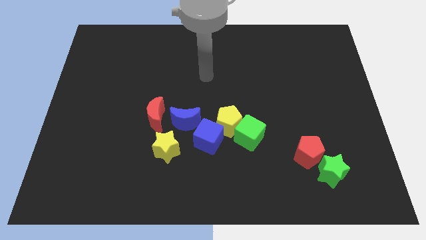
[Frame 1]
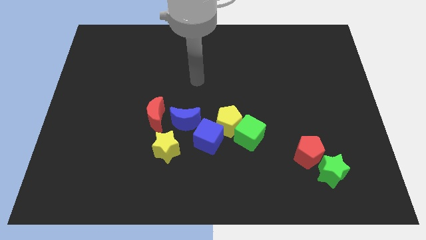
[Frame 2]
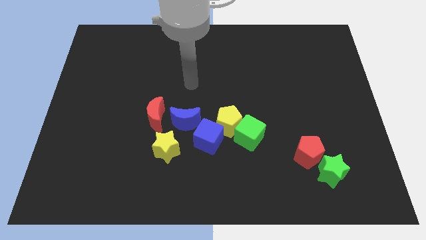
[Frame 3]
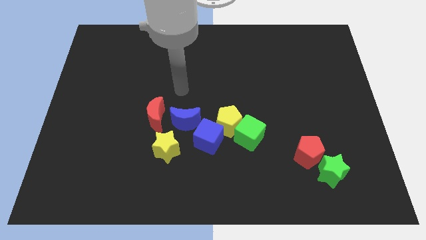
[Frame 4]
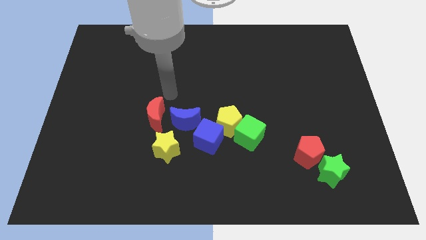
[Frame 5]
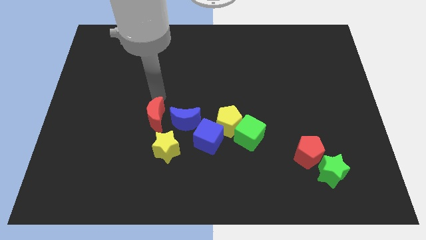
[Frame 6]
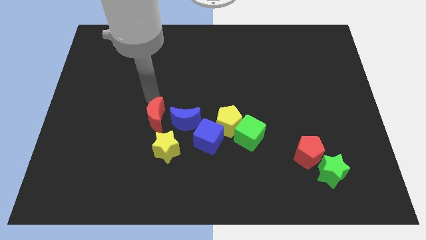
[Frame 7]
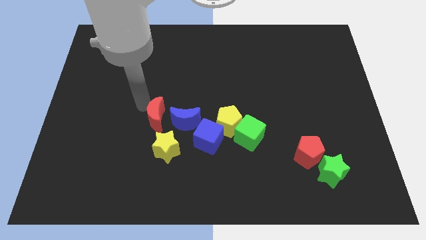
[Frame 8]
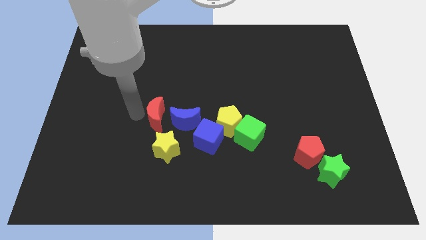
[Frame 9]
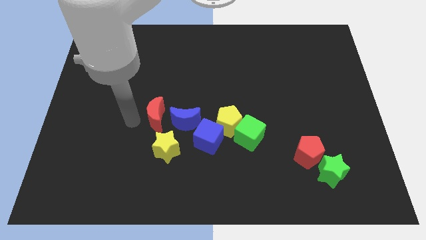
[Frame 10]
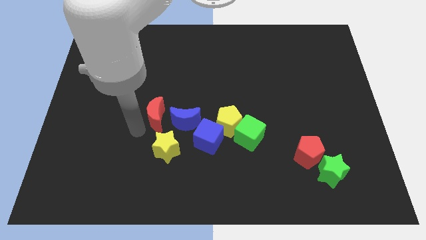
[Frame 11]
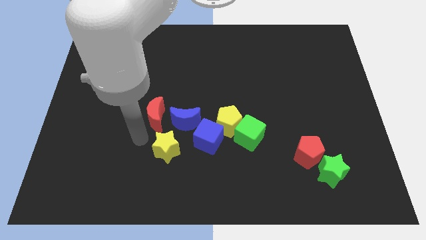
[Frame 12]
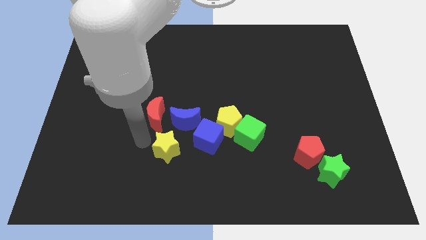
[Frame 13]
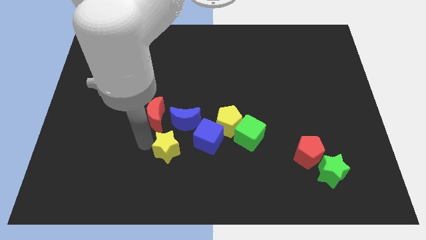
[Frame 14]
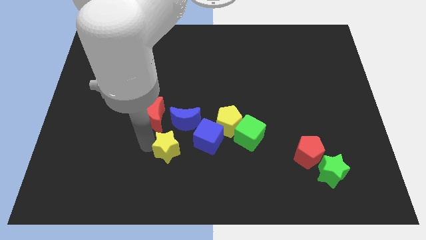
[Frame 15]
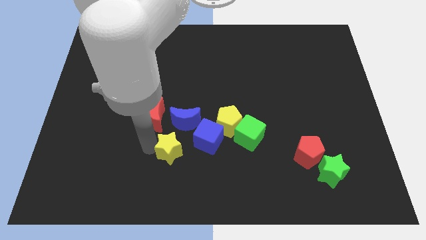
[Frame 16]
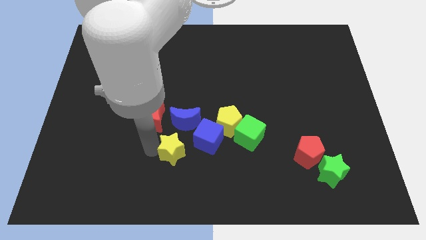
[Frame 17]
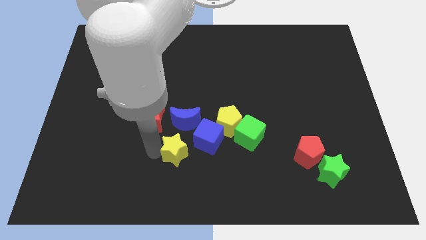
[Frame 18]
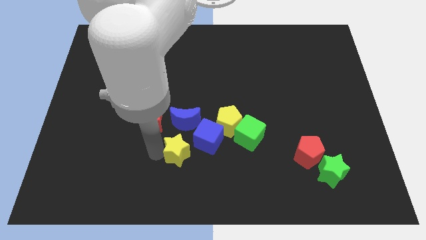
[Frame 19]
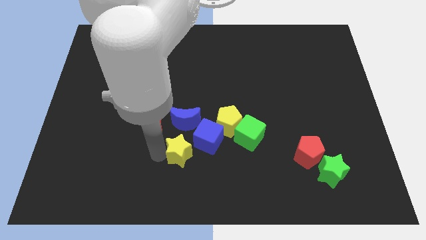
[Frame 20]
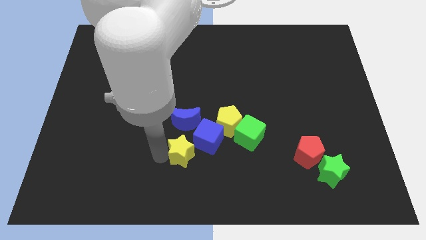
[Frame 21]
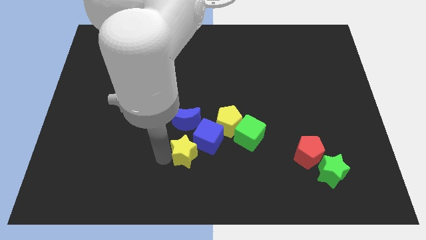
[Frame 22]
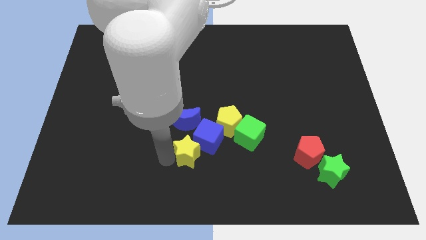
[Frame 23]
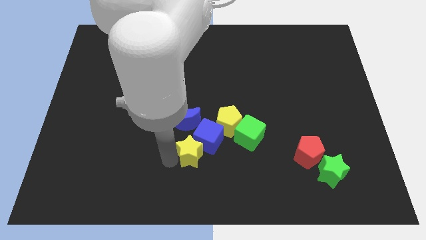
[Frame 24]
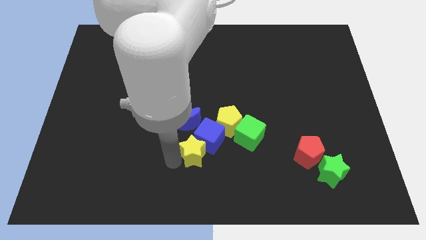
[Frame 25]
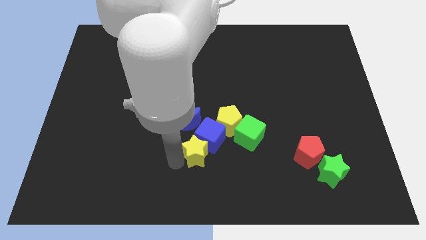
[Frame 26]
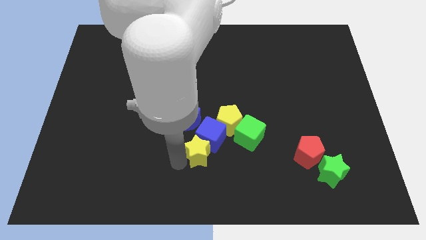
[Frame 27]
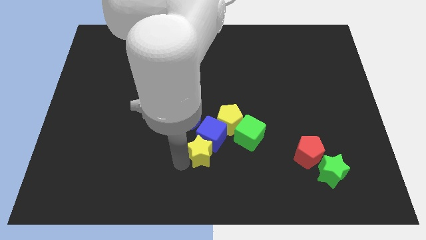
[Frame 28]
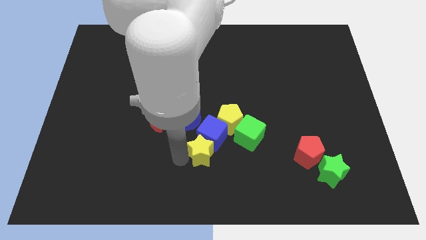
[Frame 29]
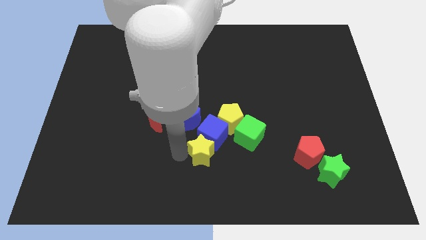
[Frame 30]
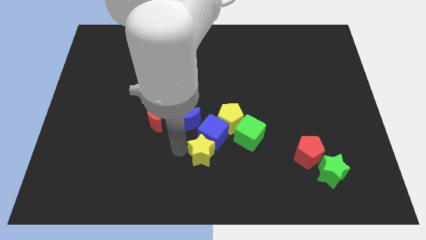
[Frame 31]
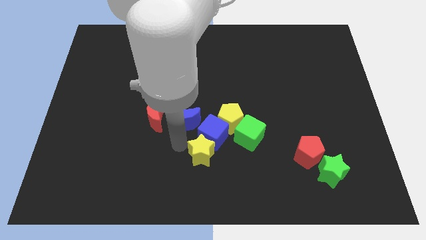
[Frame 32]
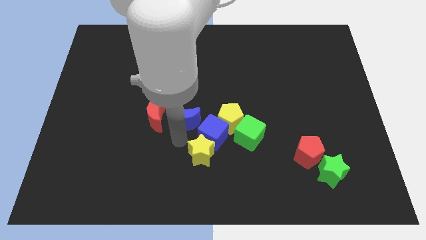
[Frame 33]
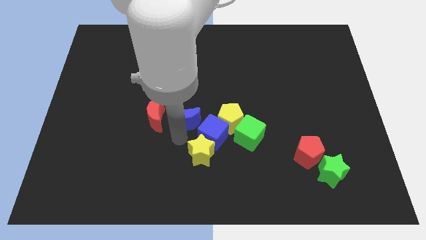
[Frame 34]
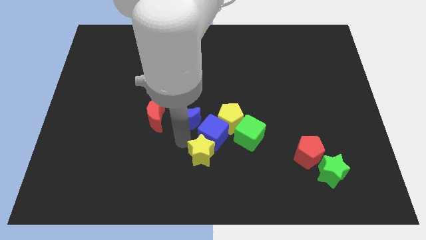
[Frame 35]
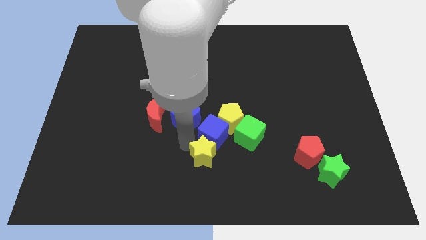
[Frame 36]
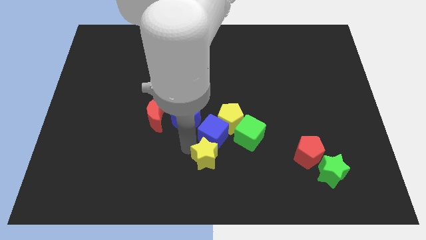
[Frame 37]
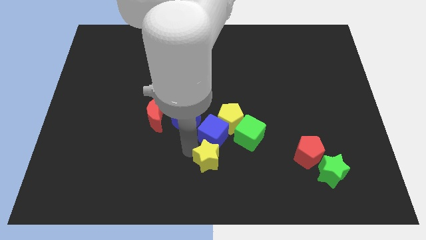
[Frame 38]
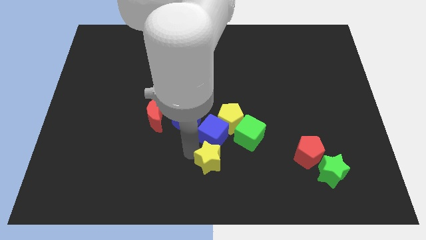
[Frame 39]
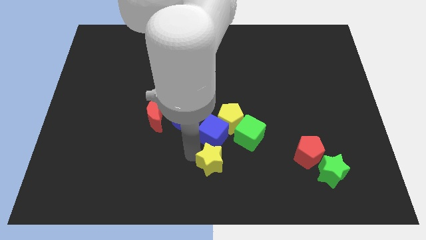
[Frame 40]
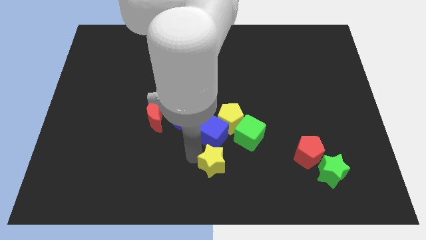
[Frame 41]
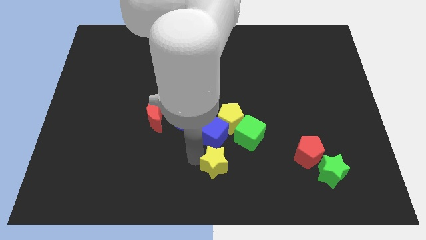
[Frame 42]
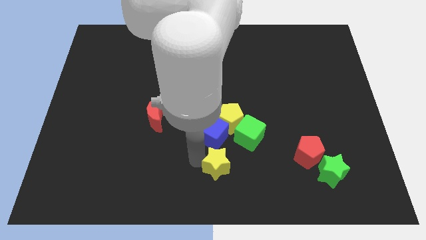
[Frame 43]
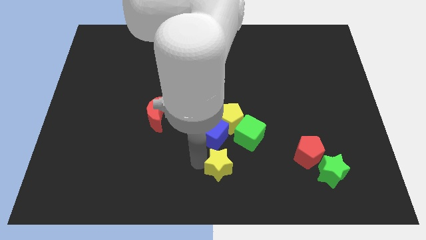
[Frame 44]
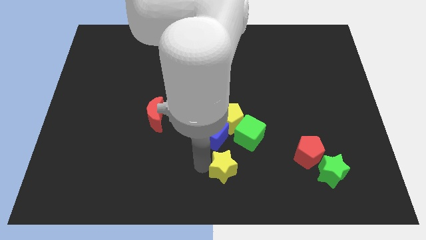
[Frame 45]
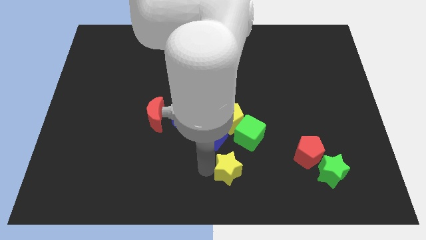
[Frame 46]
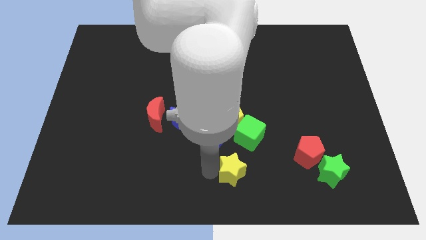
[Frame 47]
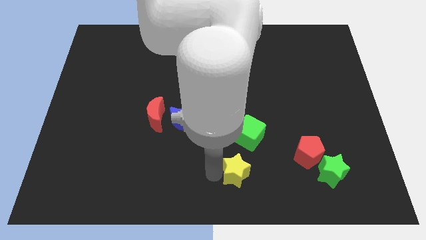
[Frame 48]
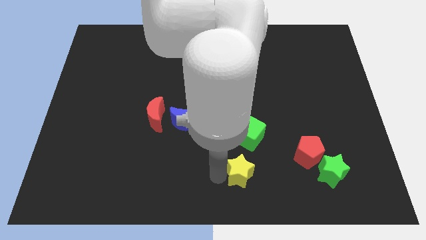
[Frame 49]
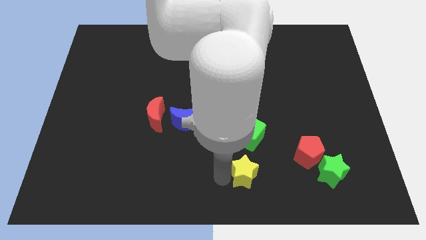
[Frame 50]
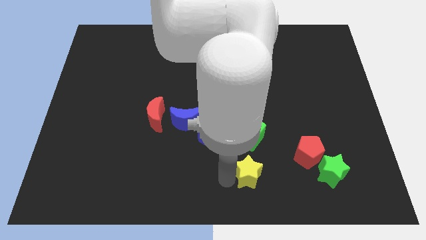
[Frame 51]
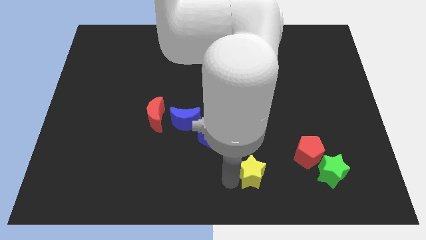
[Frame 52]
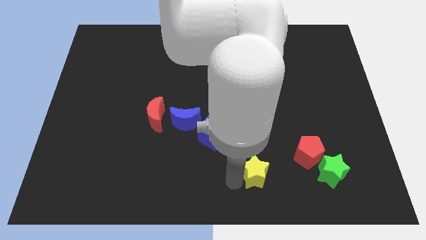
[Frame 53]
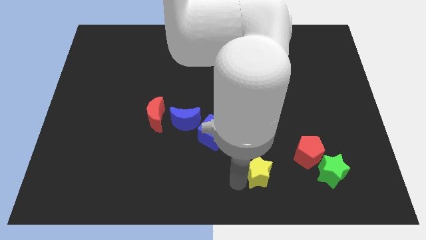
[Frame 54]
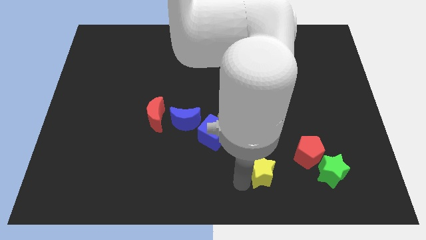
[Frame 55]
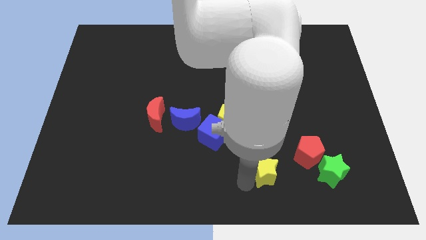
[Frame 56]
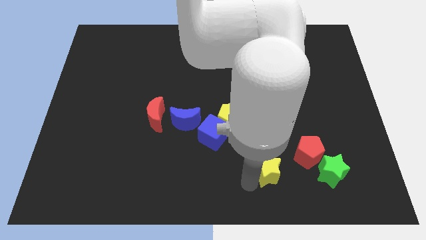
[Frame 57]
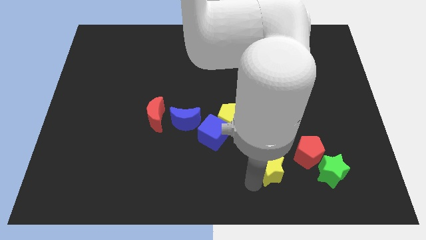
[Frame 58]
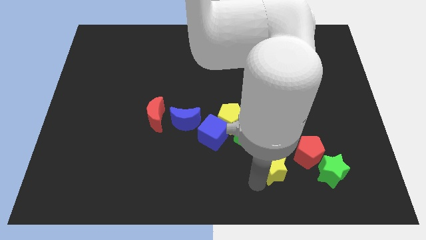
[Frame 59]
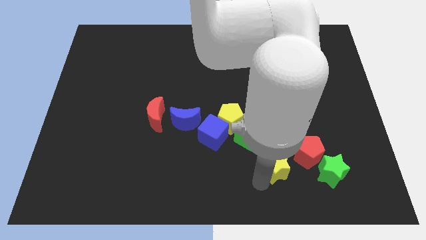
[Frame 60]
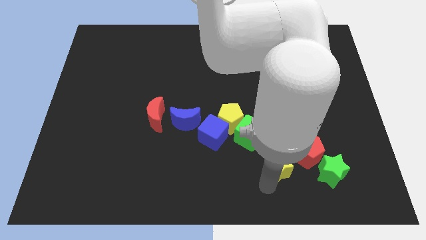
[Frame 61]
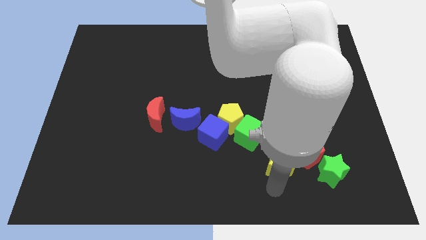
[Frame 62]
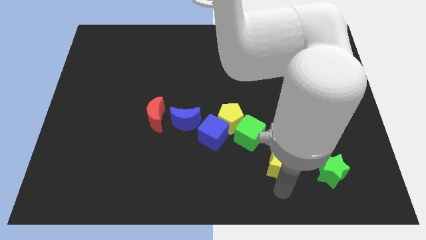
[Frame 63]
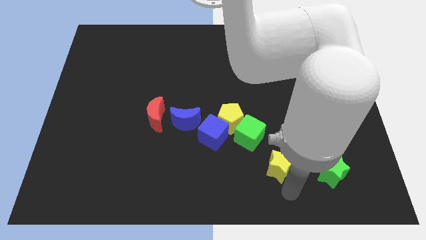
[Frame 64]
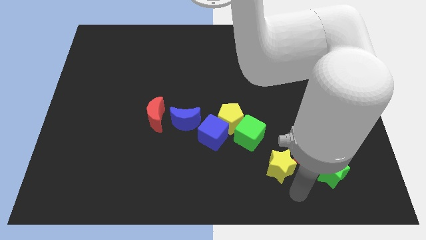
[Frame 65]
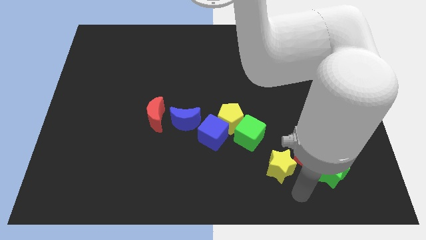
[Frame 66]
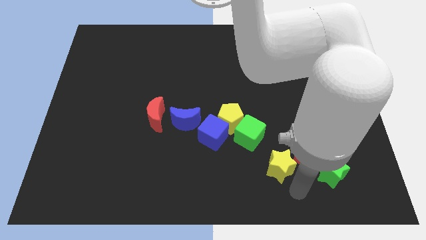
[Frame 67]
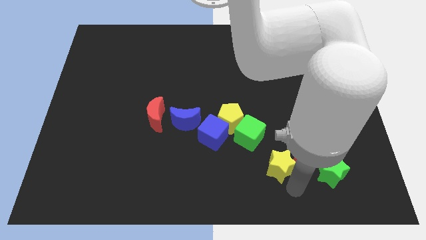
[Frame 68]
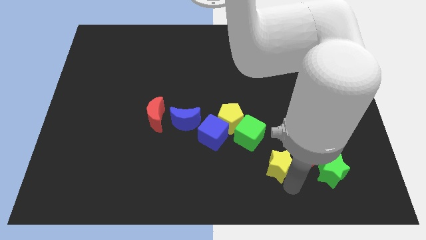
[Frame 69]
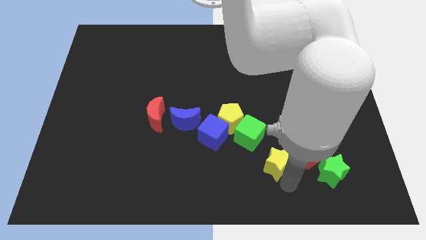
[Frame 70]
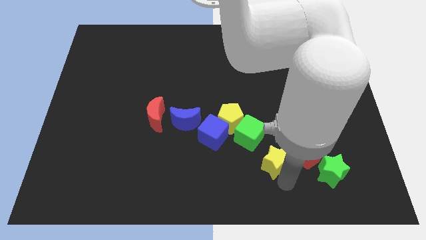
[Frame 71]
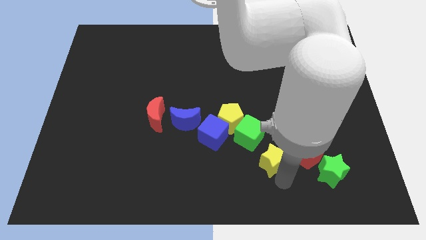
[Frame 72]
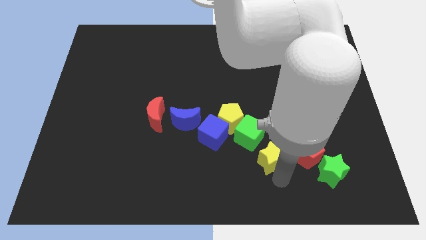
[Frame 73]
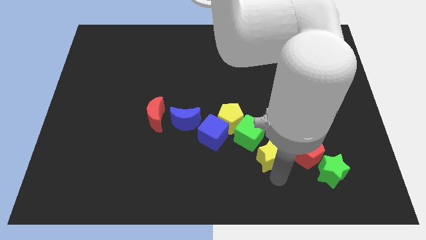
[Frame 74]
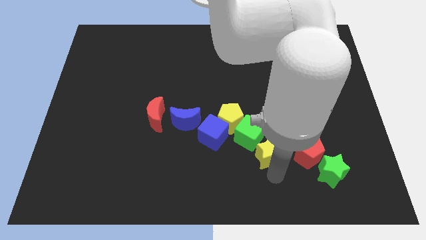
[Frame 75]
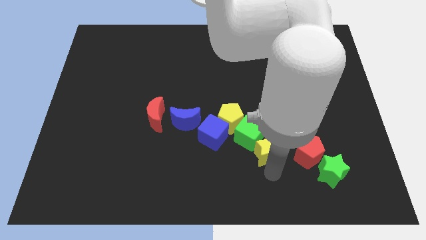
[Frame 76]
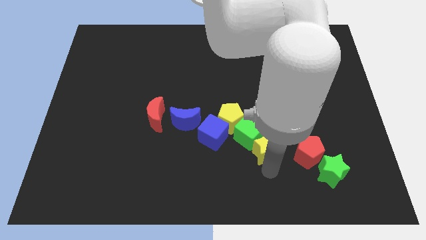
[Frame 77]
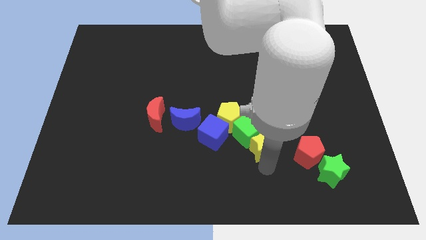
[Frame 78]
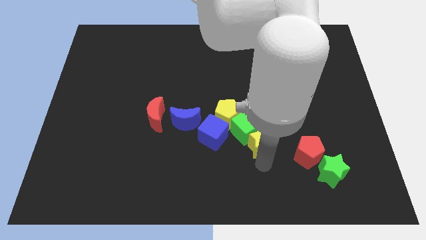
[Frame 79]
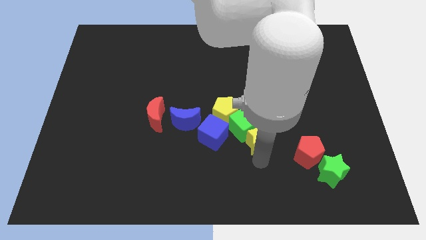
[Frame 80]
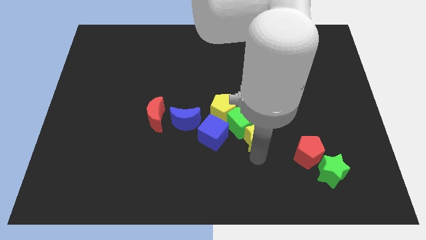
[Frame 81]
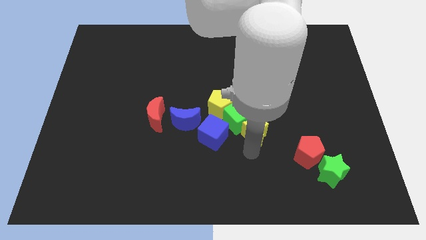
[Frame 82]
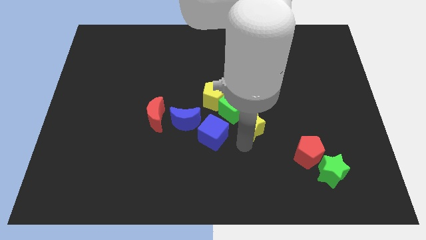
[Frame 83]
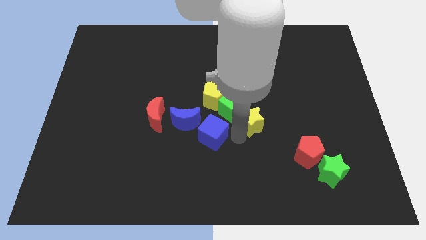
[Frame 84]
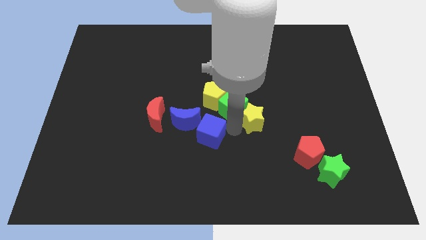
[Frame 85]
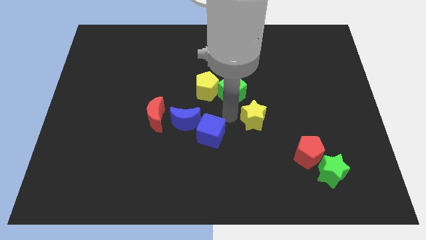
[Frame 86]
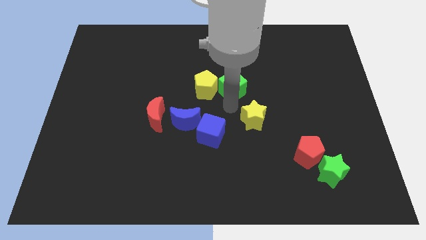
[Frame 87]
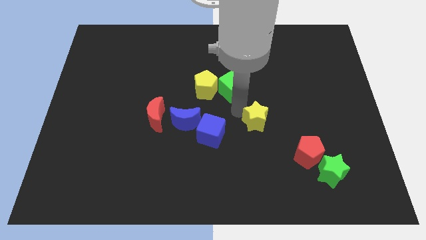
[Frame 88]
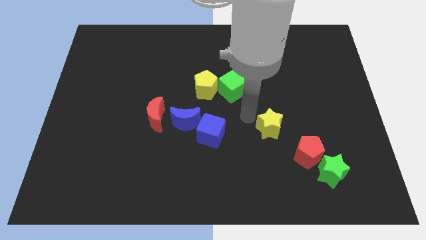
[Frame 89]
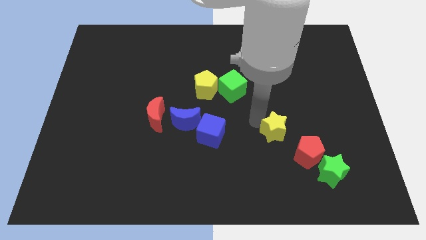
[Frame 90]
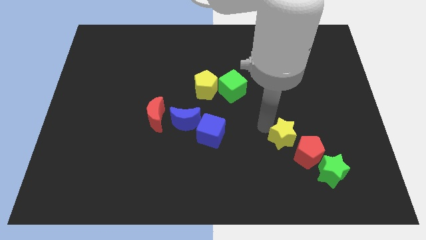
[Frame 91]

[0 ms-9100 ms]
move the yellow star to the top left of the green star
